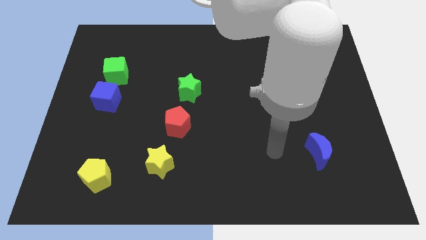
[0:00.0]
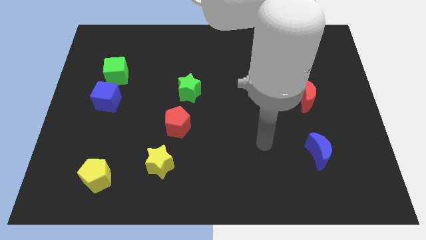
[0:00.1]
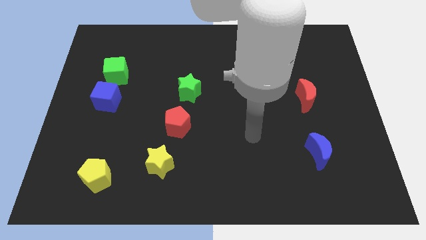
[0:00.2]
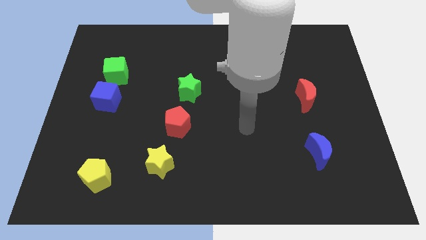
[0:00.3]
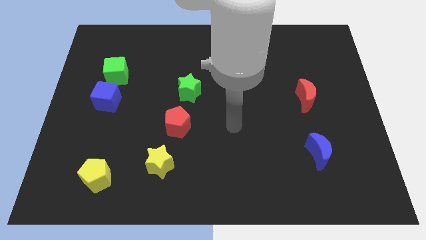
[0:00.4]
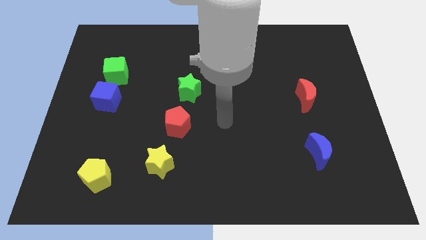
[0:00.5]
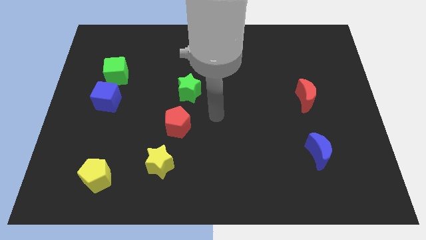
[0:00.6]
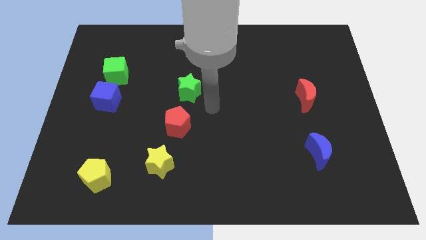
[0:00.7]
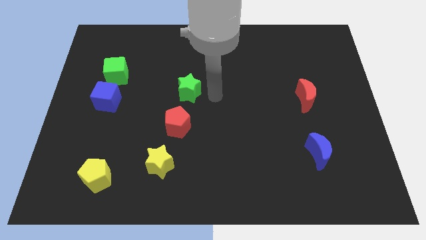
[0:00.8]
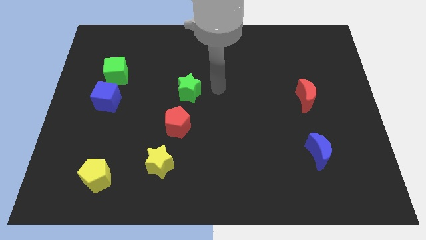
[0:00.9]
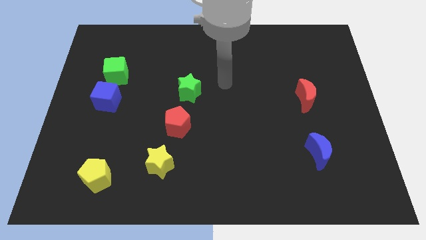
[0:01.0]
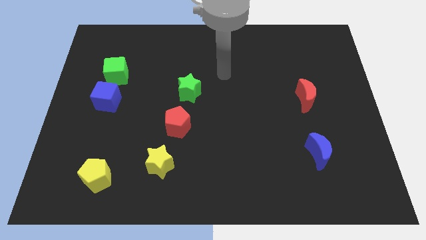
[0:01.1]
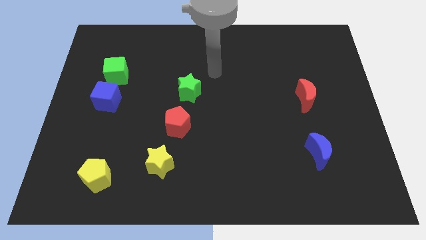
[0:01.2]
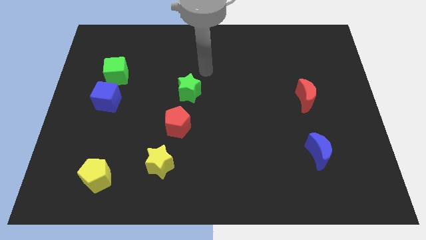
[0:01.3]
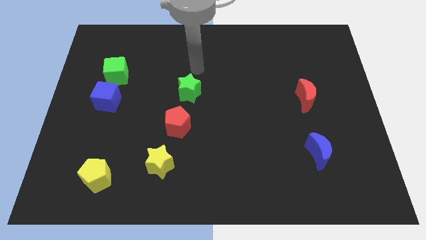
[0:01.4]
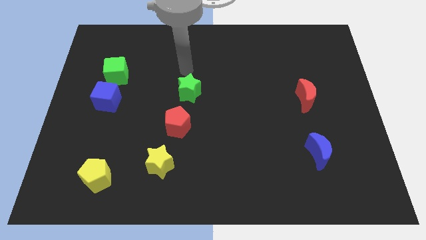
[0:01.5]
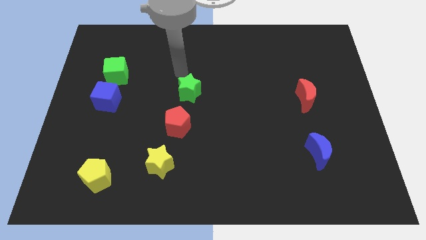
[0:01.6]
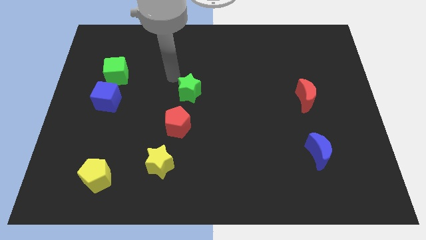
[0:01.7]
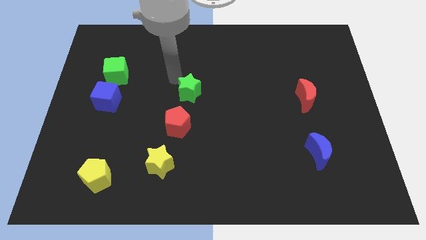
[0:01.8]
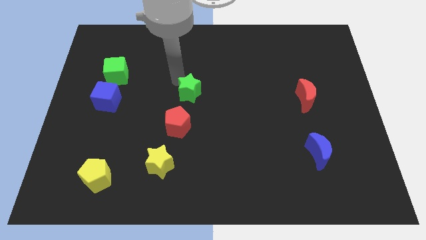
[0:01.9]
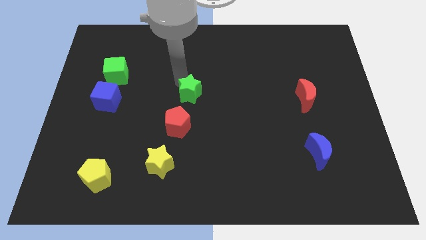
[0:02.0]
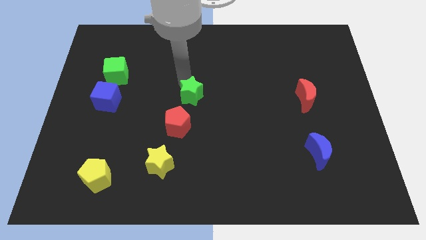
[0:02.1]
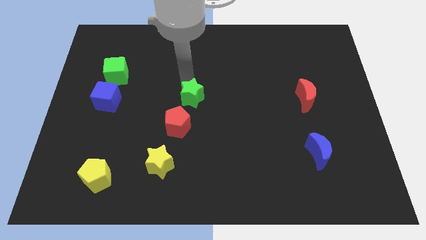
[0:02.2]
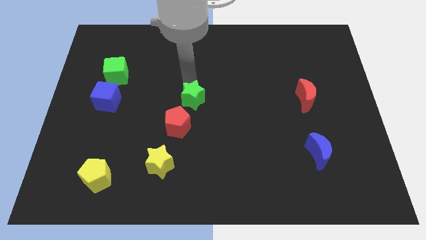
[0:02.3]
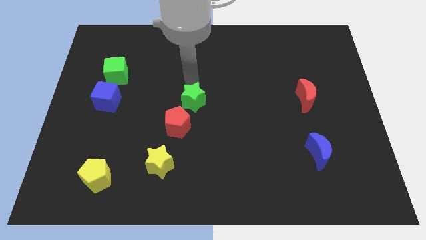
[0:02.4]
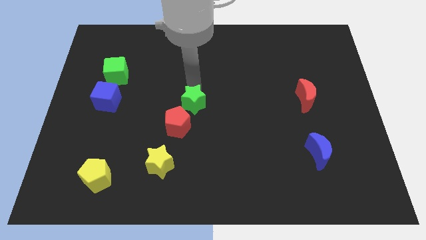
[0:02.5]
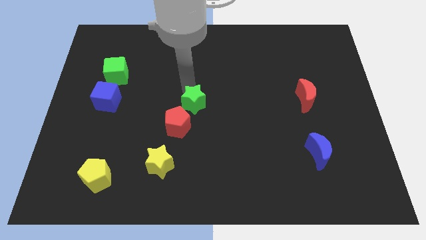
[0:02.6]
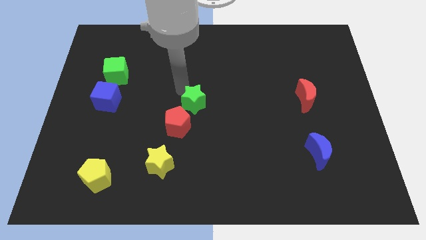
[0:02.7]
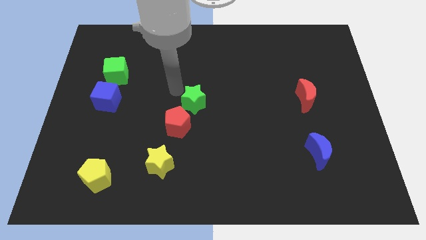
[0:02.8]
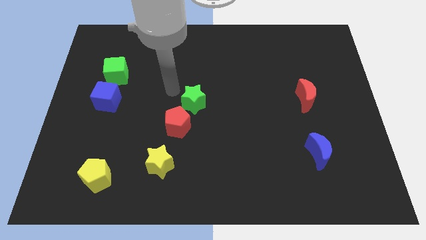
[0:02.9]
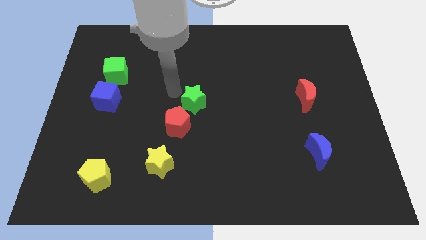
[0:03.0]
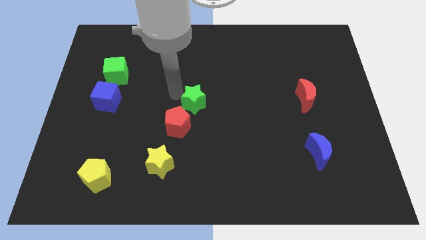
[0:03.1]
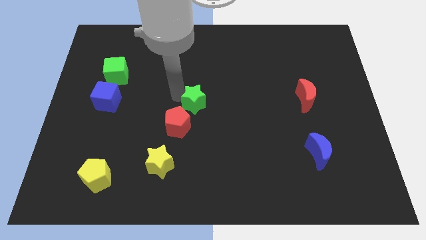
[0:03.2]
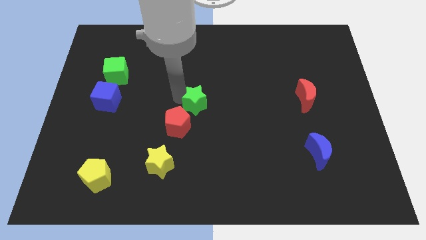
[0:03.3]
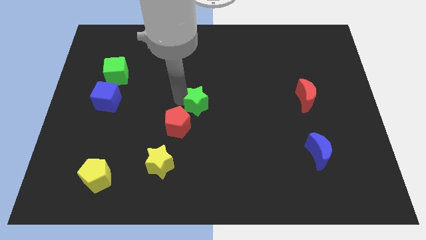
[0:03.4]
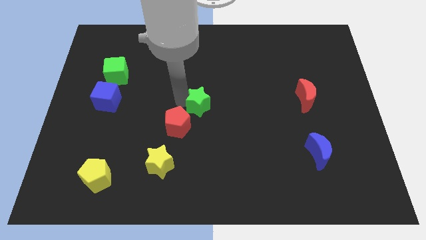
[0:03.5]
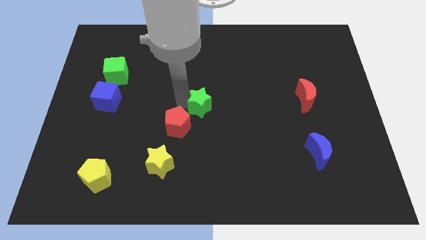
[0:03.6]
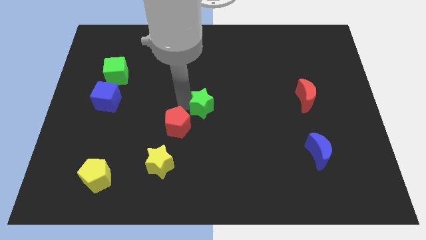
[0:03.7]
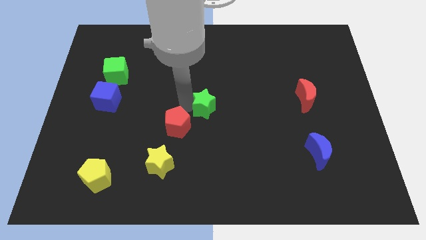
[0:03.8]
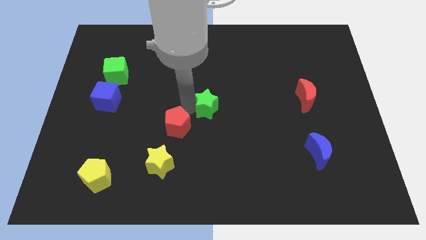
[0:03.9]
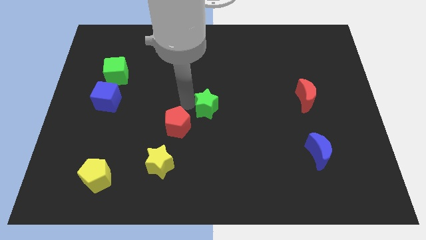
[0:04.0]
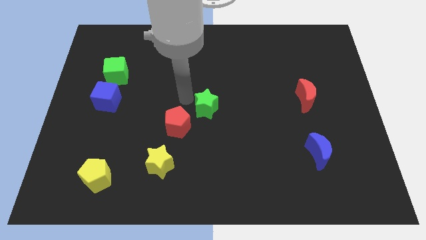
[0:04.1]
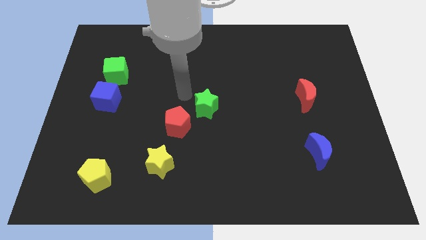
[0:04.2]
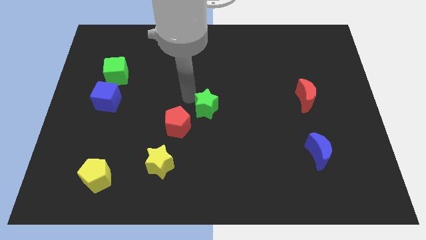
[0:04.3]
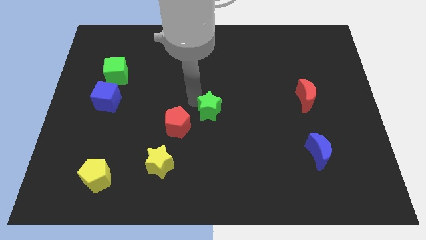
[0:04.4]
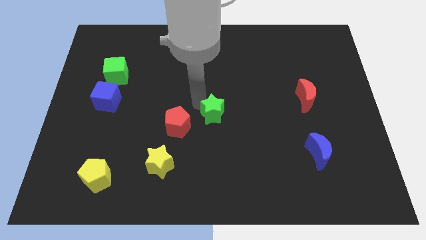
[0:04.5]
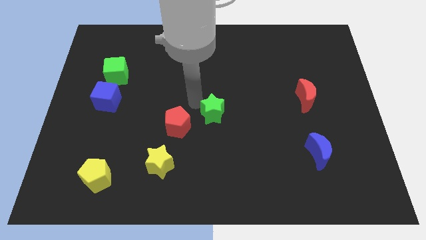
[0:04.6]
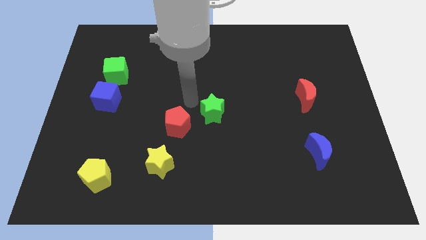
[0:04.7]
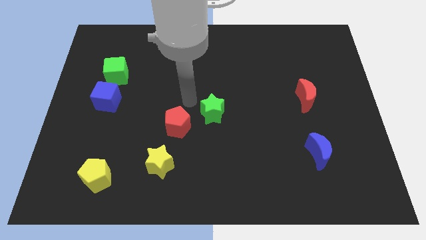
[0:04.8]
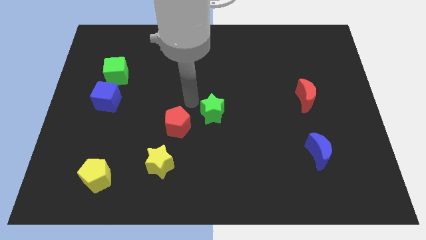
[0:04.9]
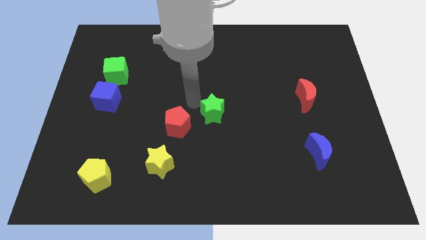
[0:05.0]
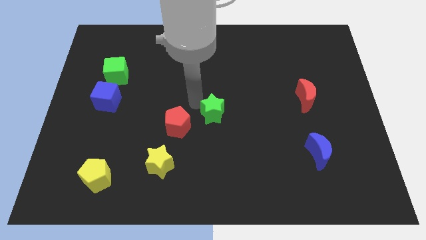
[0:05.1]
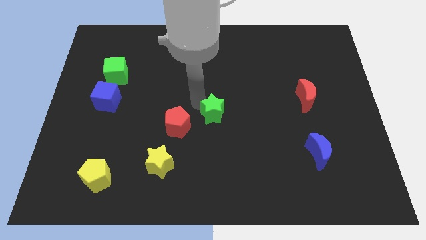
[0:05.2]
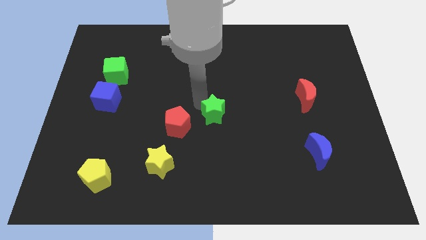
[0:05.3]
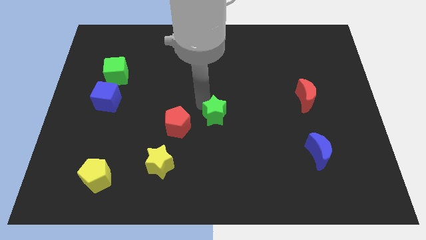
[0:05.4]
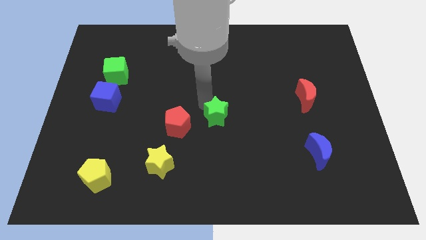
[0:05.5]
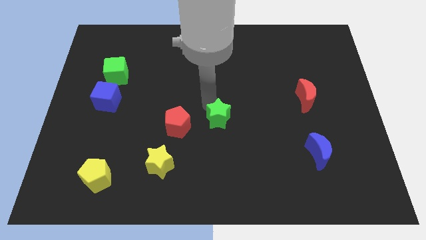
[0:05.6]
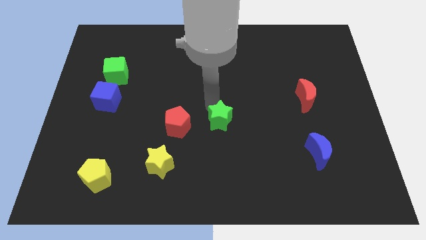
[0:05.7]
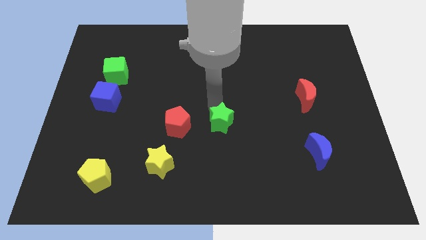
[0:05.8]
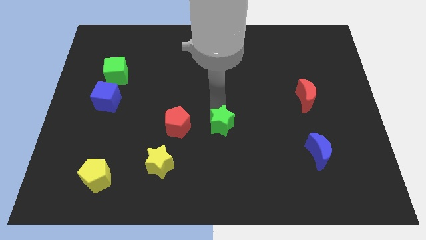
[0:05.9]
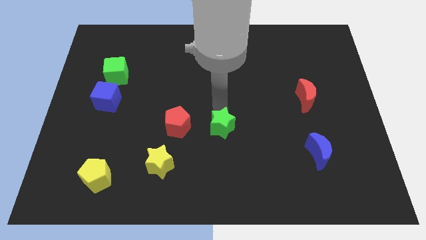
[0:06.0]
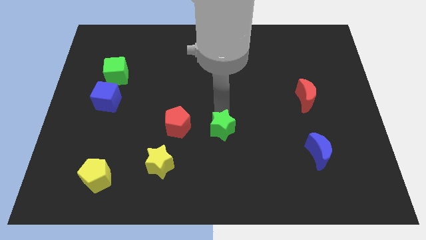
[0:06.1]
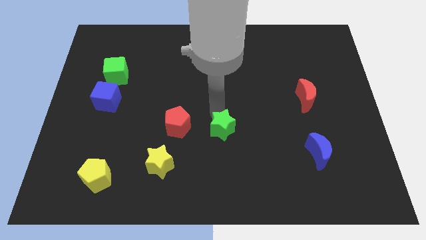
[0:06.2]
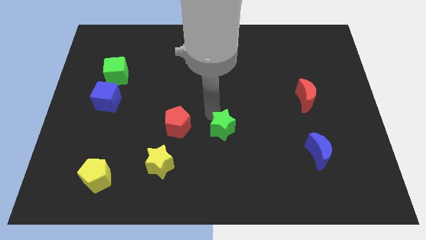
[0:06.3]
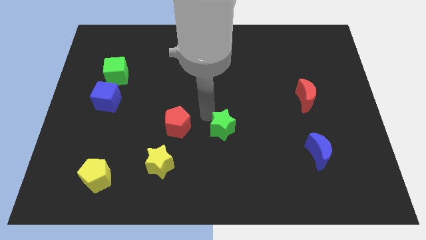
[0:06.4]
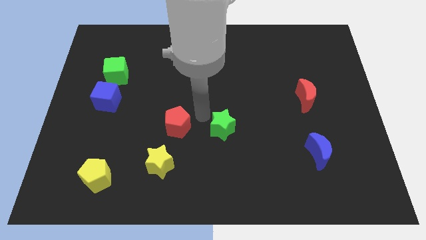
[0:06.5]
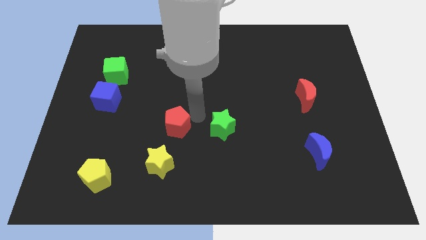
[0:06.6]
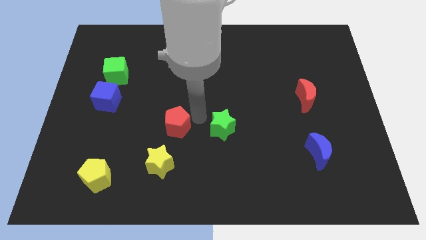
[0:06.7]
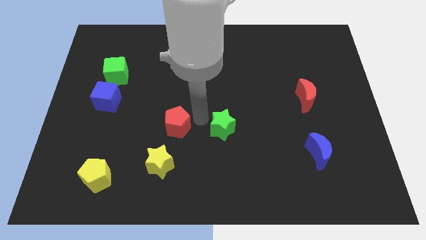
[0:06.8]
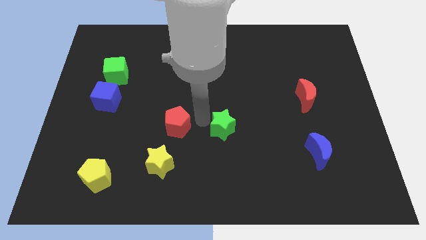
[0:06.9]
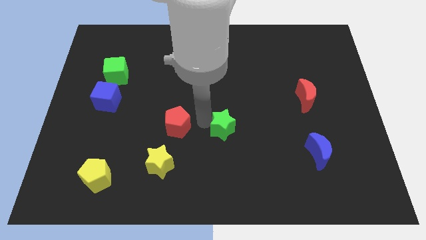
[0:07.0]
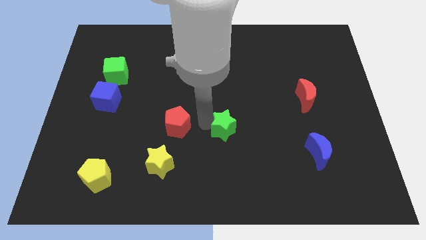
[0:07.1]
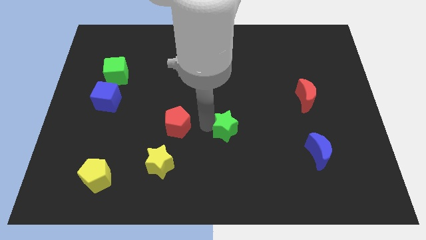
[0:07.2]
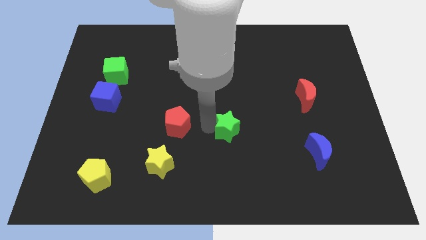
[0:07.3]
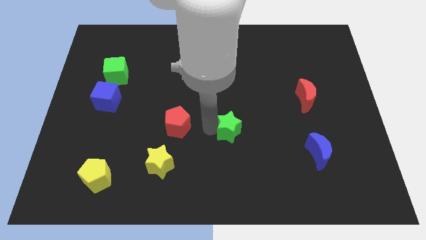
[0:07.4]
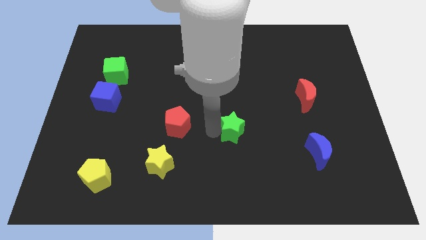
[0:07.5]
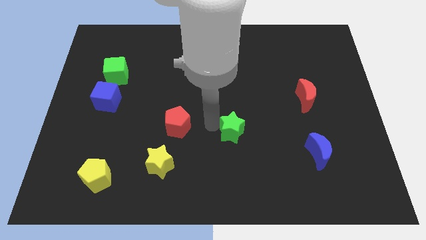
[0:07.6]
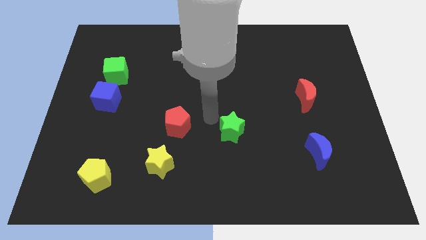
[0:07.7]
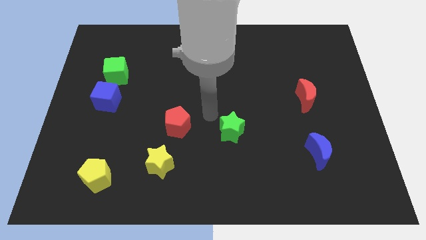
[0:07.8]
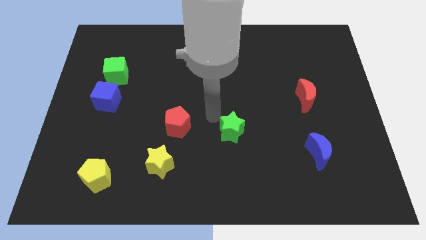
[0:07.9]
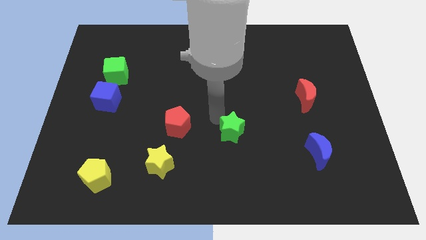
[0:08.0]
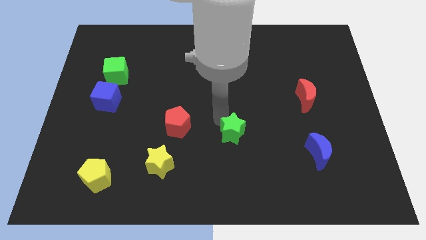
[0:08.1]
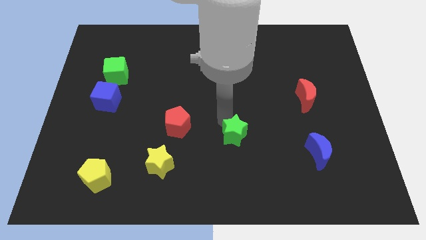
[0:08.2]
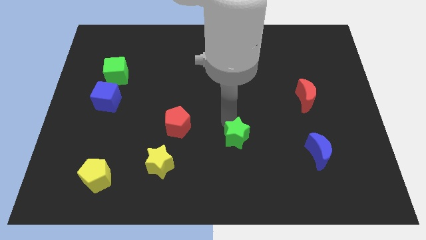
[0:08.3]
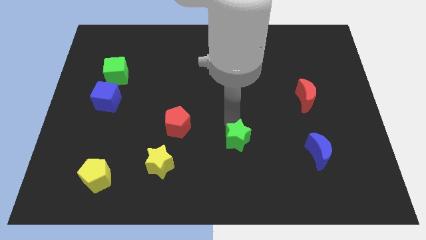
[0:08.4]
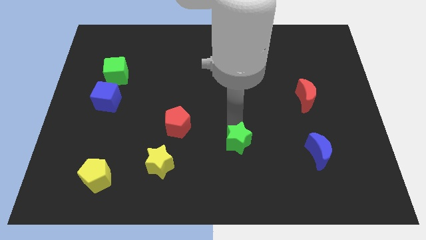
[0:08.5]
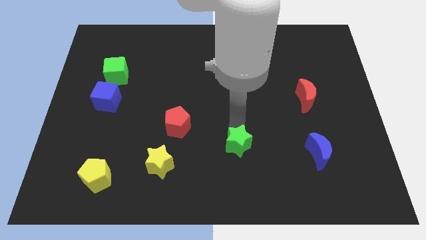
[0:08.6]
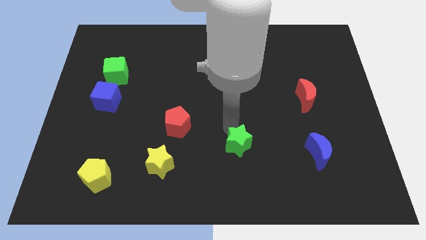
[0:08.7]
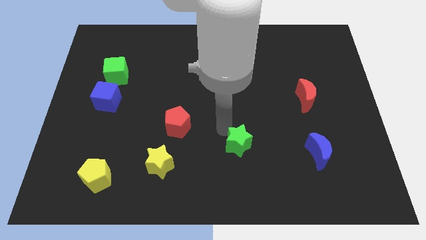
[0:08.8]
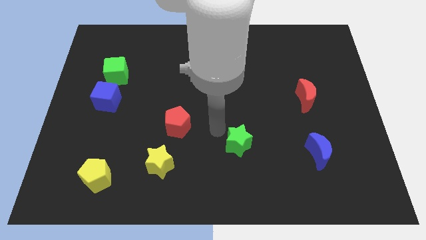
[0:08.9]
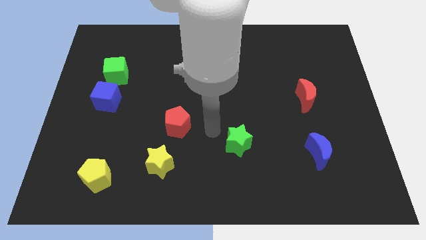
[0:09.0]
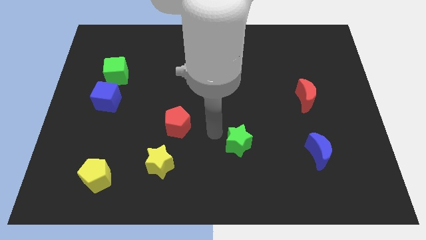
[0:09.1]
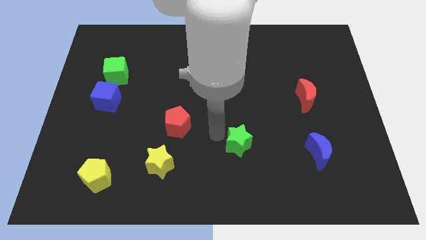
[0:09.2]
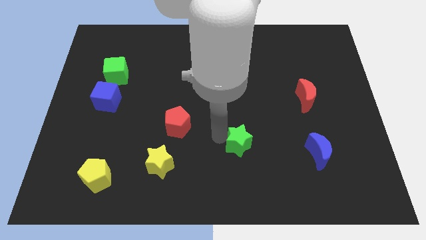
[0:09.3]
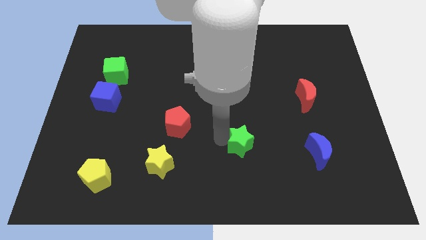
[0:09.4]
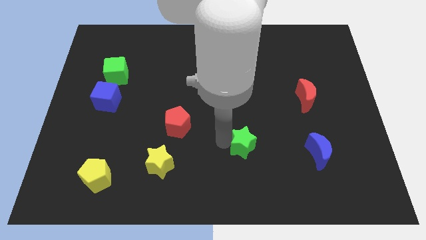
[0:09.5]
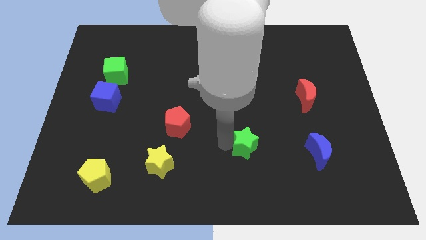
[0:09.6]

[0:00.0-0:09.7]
push the green star downwards and right
